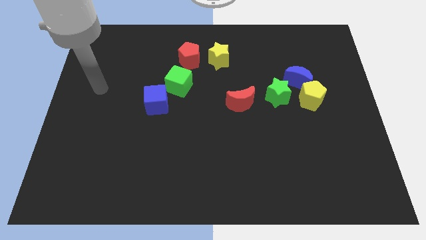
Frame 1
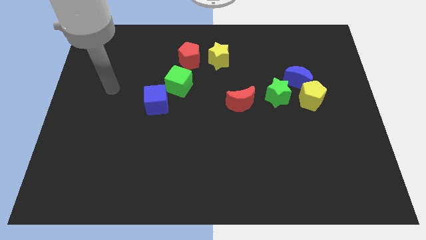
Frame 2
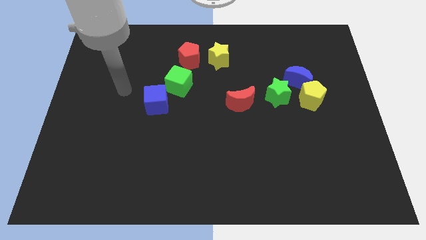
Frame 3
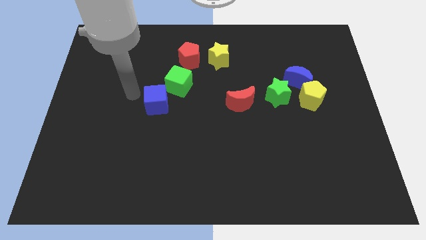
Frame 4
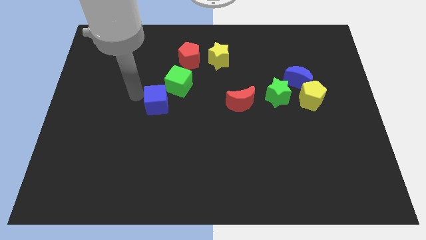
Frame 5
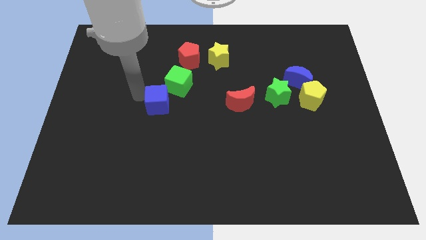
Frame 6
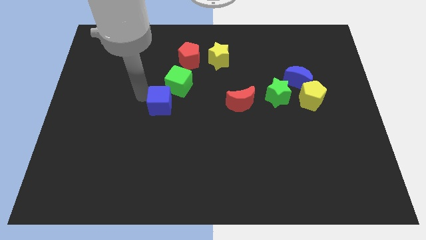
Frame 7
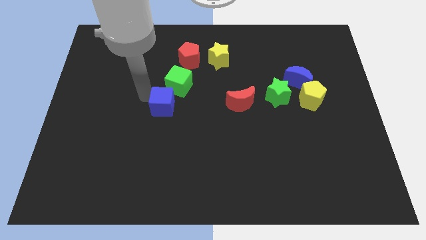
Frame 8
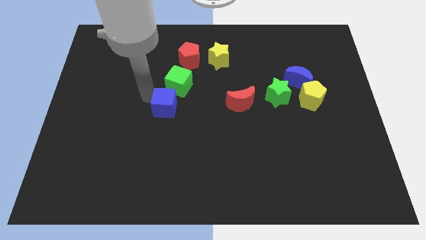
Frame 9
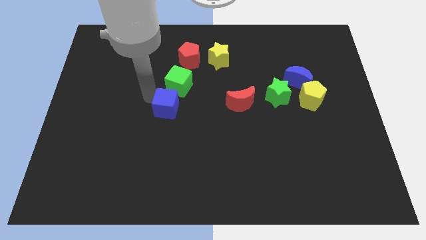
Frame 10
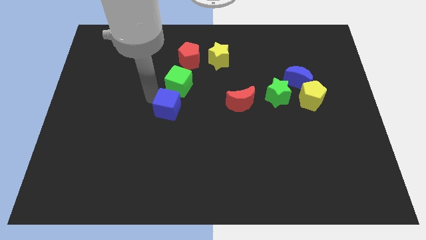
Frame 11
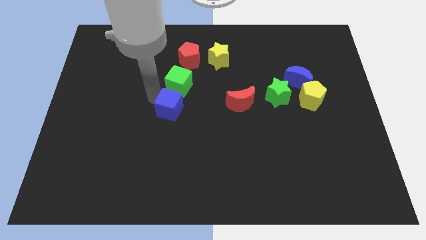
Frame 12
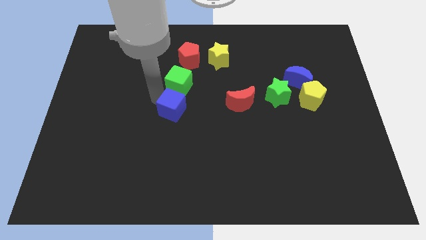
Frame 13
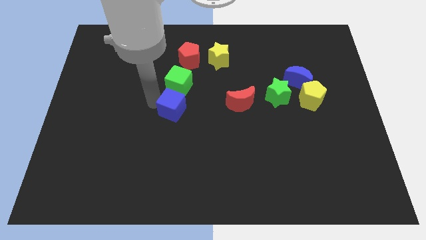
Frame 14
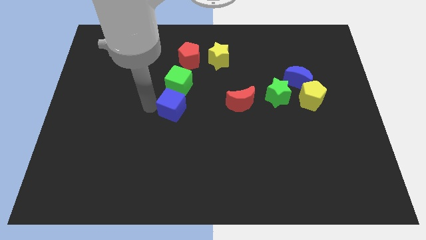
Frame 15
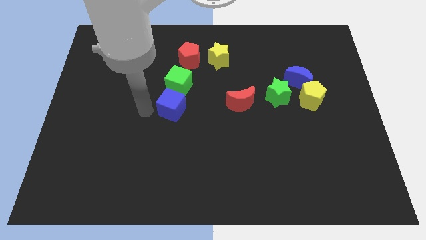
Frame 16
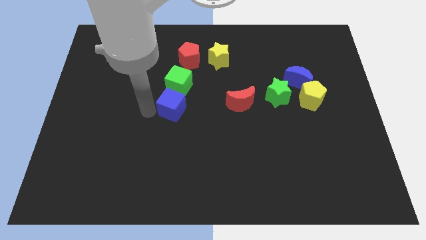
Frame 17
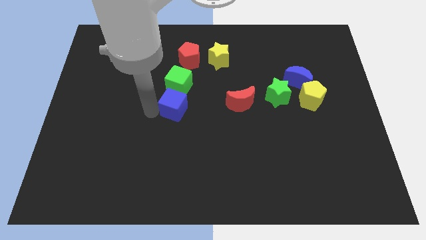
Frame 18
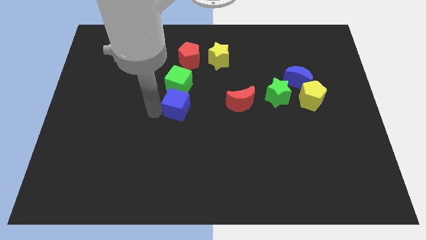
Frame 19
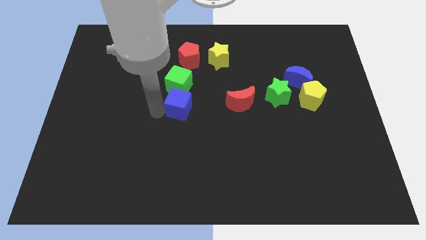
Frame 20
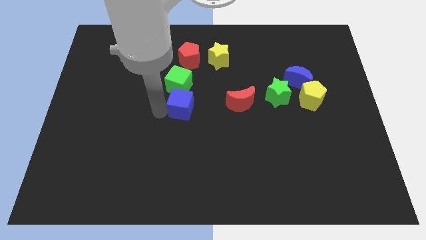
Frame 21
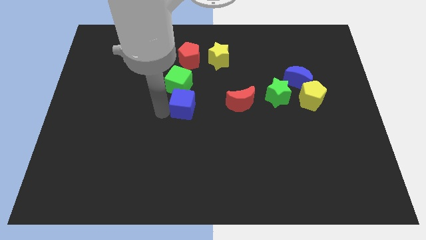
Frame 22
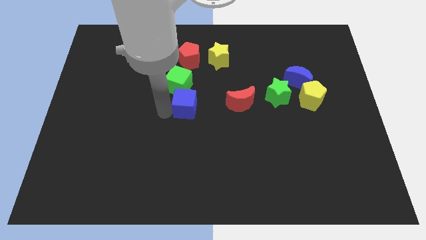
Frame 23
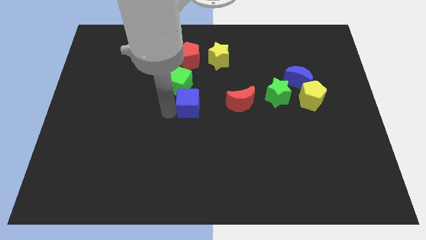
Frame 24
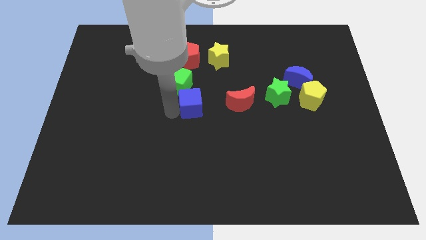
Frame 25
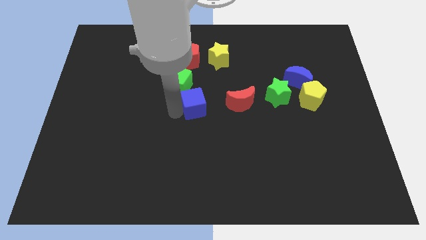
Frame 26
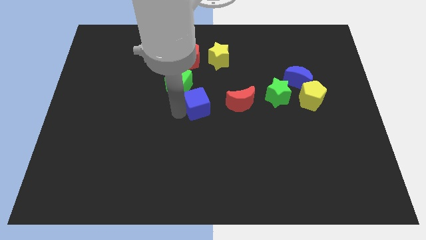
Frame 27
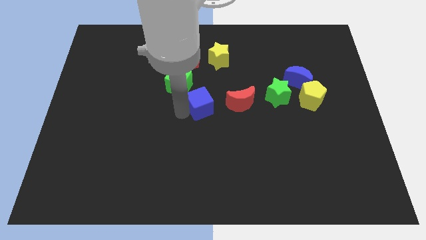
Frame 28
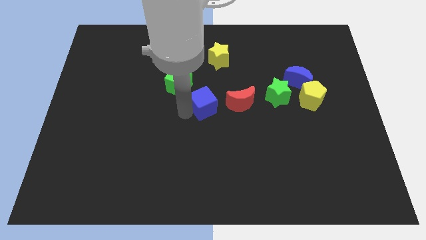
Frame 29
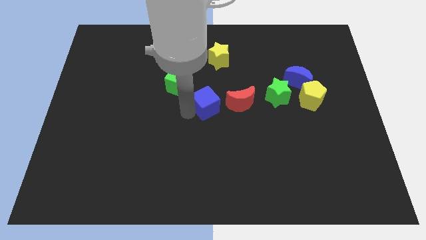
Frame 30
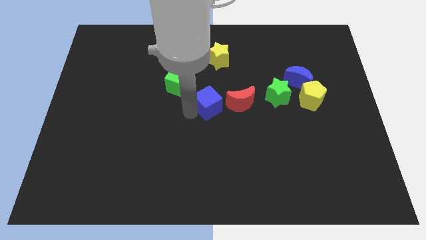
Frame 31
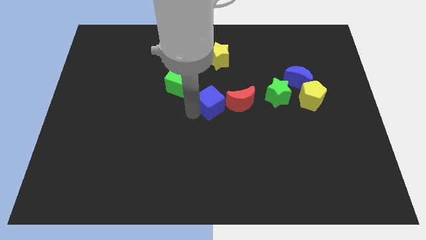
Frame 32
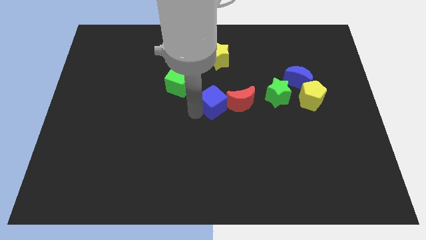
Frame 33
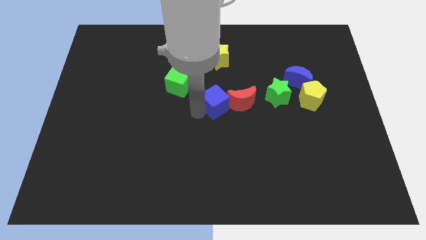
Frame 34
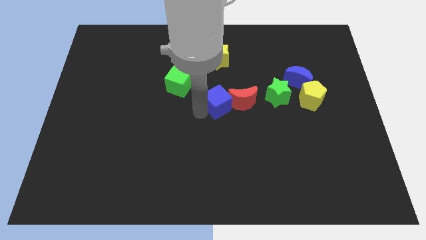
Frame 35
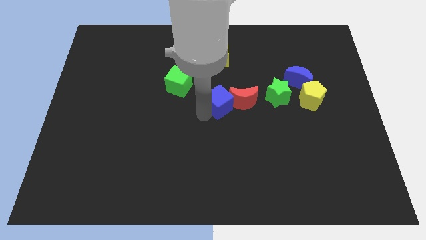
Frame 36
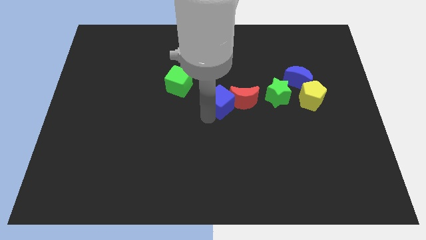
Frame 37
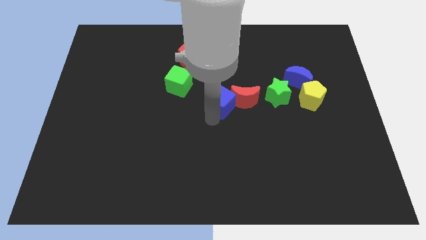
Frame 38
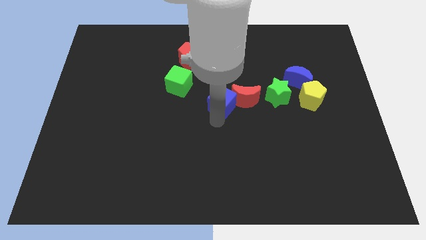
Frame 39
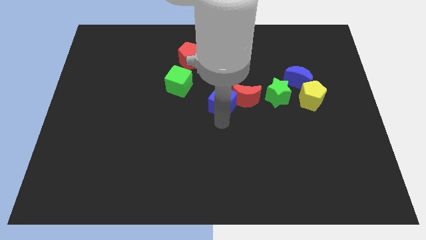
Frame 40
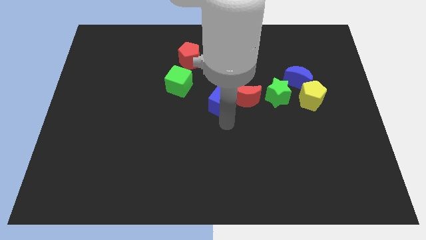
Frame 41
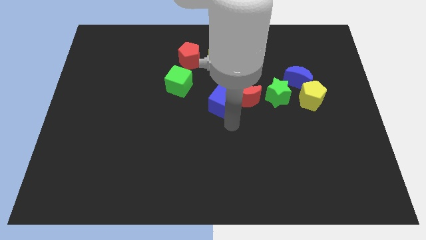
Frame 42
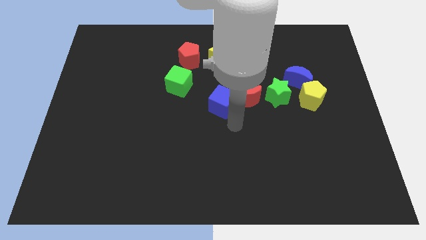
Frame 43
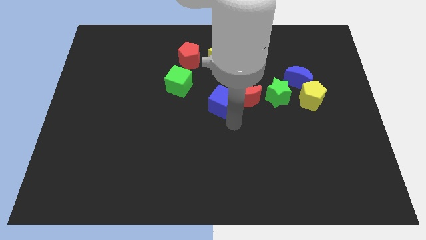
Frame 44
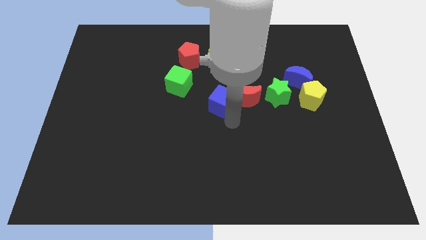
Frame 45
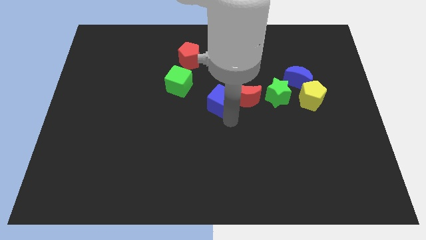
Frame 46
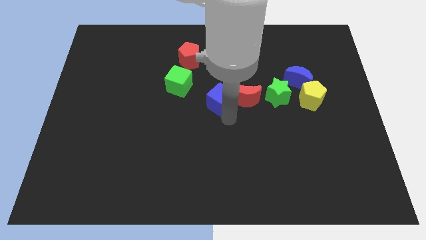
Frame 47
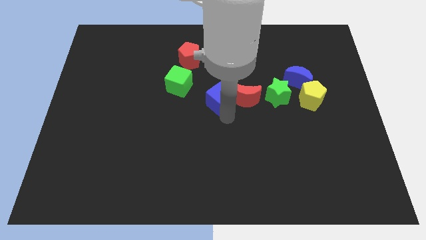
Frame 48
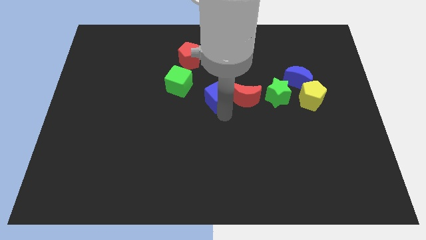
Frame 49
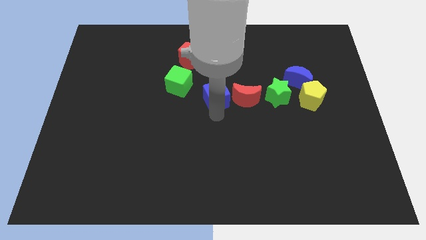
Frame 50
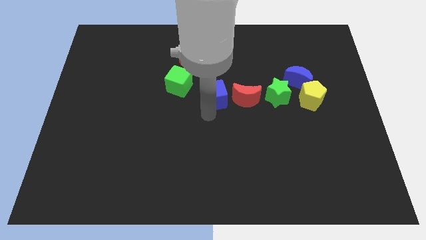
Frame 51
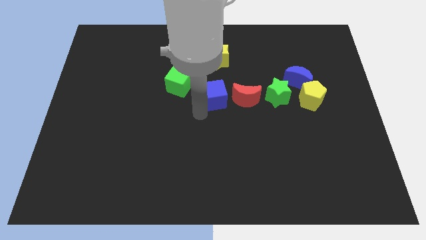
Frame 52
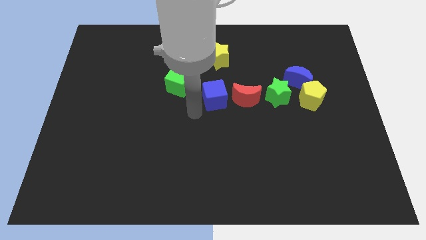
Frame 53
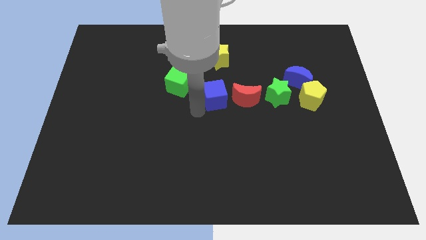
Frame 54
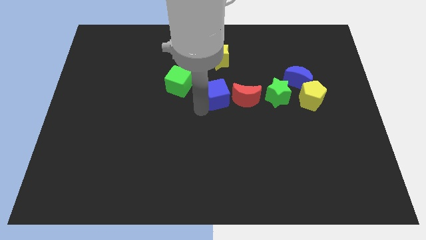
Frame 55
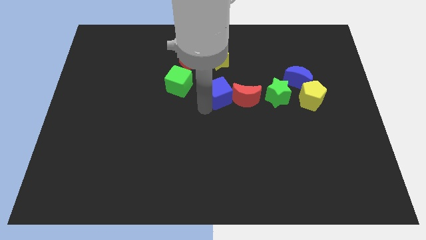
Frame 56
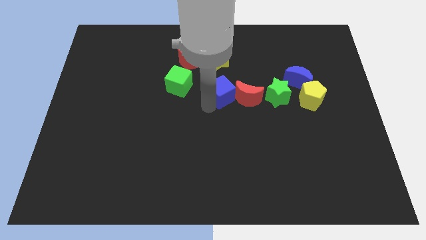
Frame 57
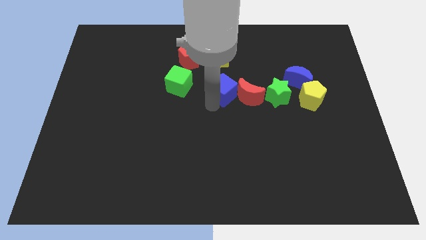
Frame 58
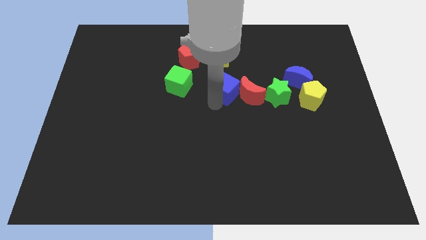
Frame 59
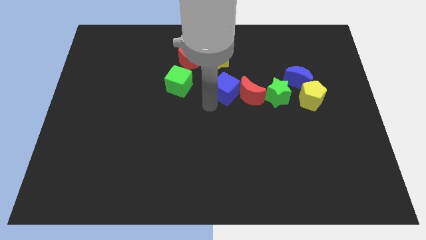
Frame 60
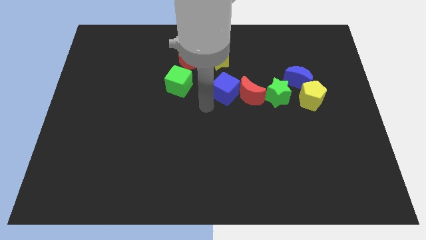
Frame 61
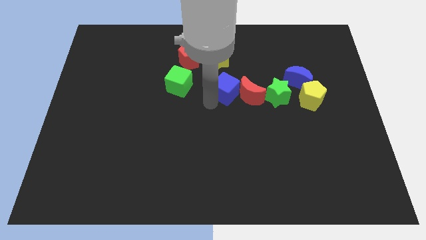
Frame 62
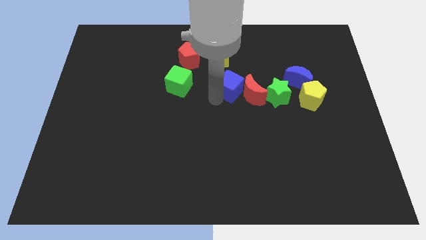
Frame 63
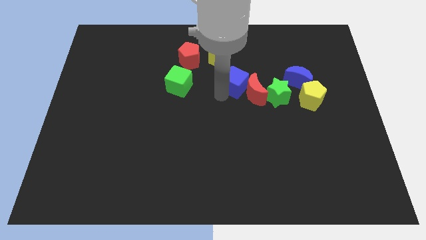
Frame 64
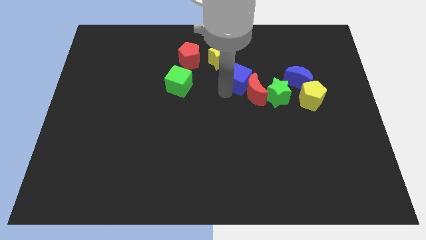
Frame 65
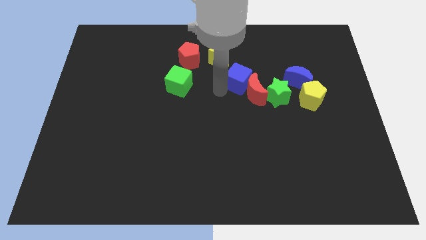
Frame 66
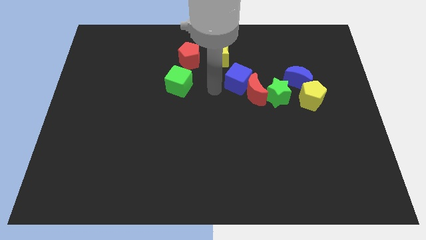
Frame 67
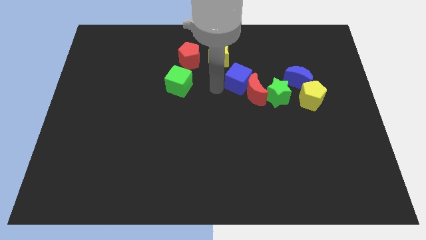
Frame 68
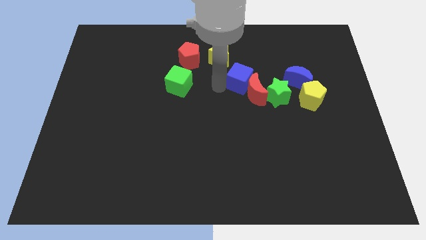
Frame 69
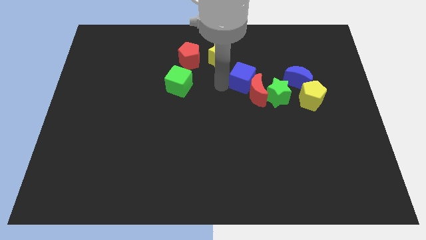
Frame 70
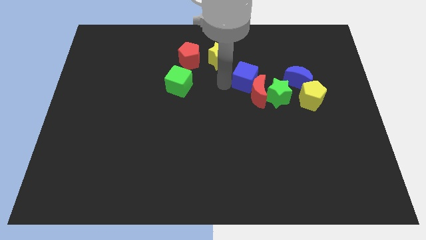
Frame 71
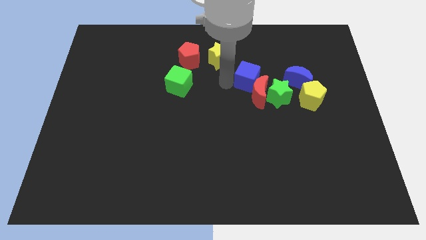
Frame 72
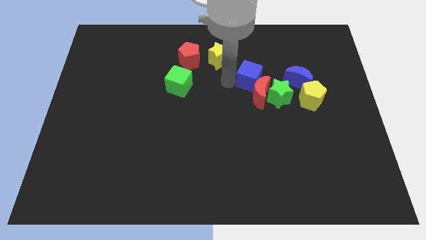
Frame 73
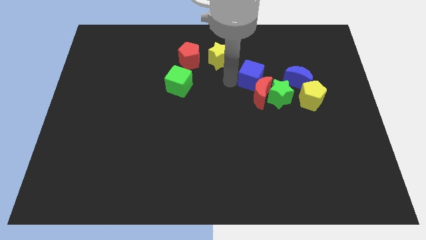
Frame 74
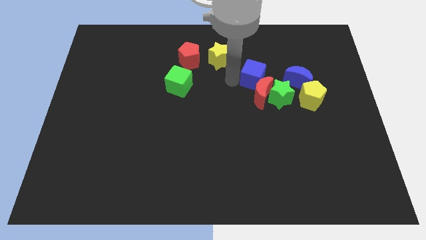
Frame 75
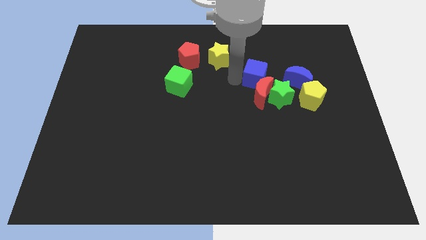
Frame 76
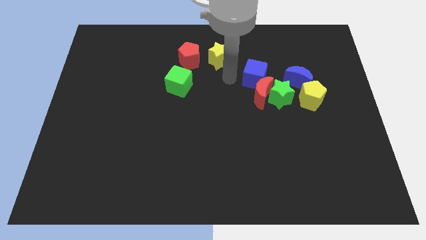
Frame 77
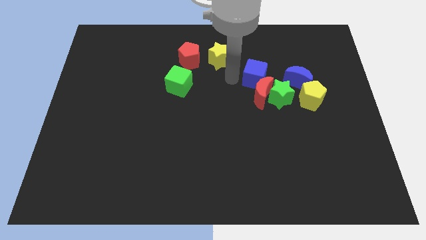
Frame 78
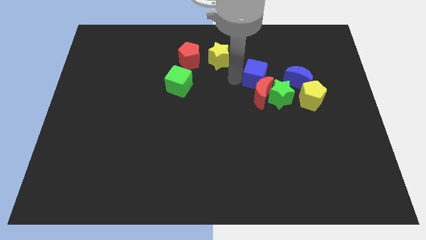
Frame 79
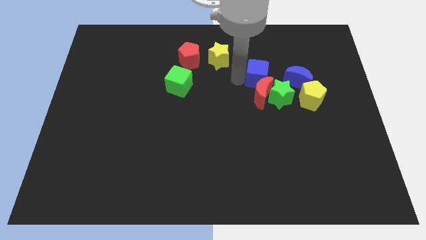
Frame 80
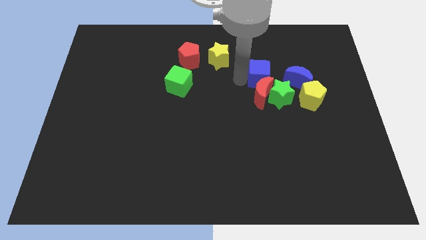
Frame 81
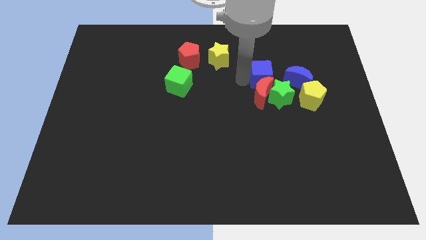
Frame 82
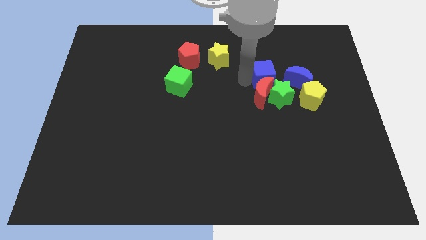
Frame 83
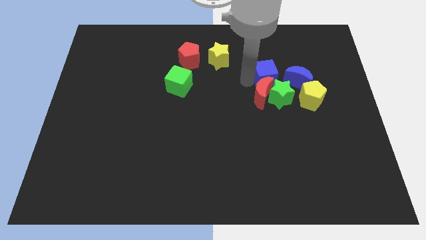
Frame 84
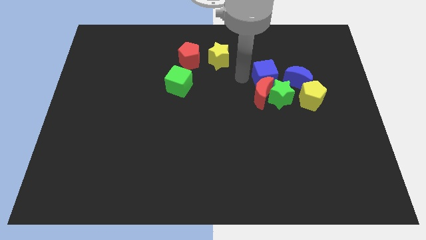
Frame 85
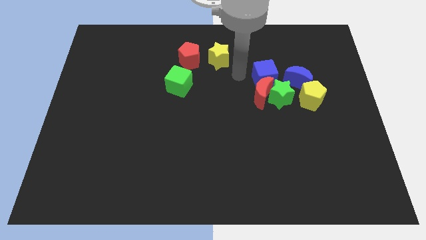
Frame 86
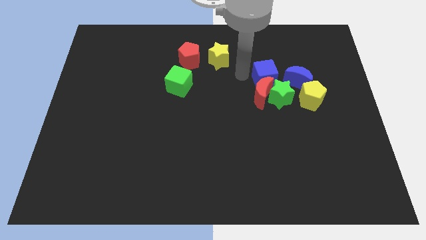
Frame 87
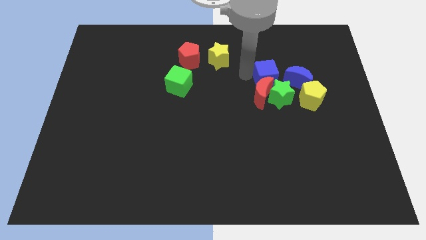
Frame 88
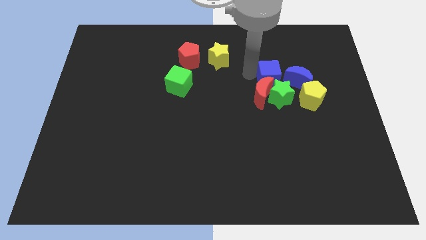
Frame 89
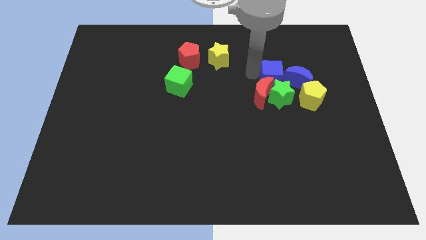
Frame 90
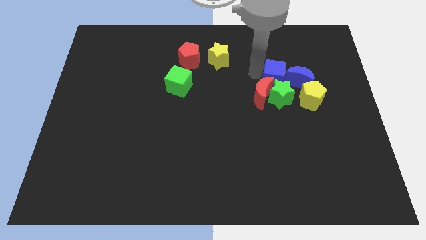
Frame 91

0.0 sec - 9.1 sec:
slide the blue cube towards the blue moon
